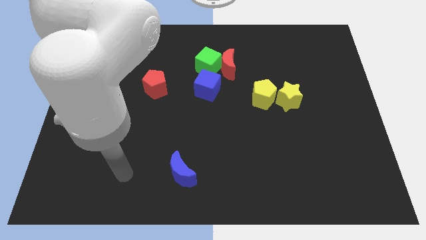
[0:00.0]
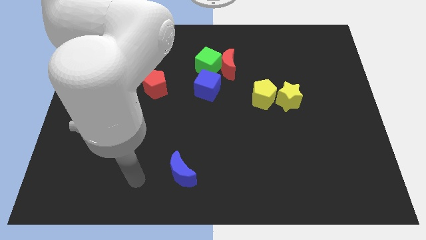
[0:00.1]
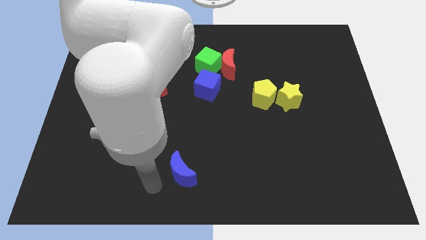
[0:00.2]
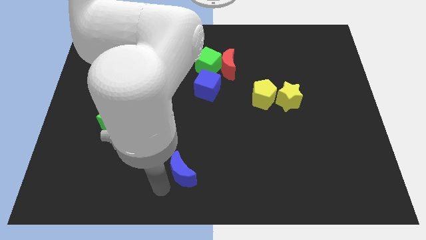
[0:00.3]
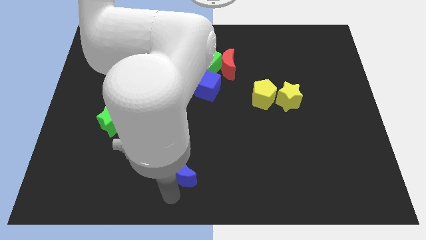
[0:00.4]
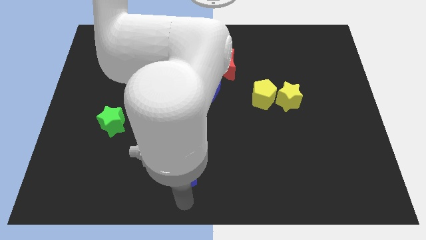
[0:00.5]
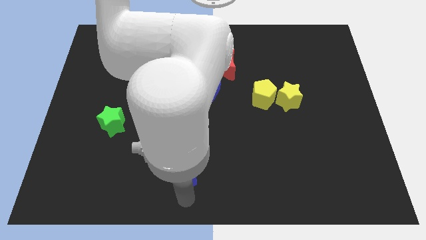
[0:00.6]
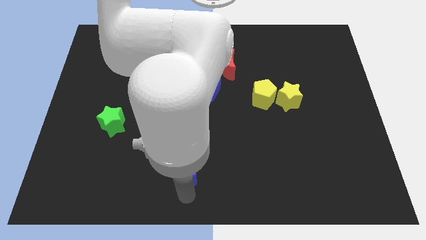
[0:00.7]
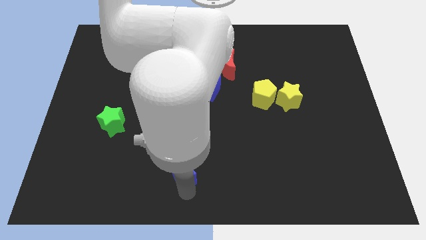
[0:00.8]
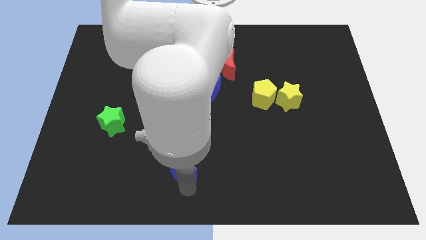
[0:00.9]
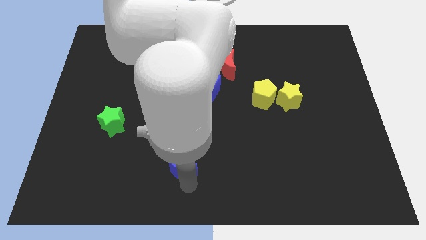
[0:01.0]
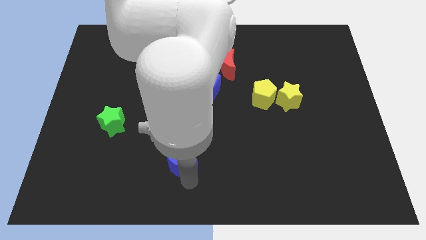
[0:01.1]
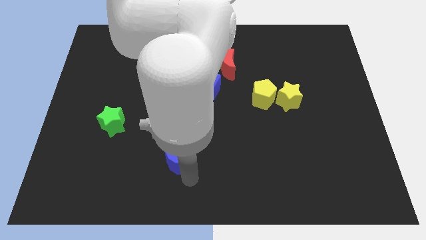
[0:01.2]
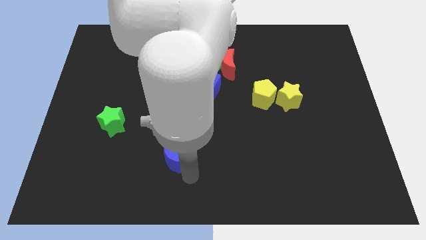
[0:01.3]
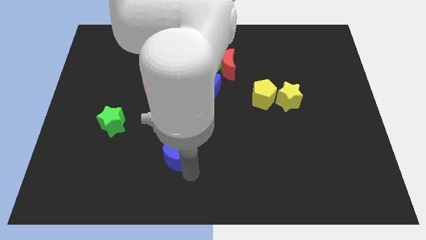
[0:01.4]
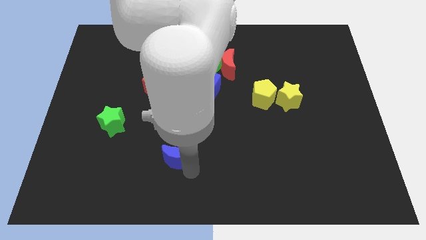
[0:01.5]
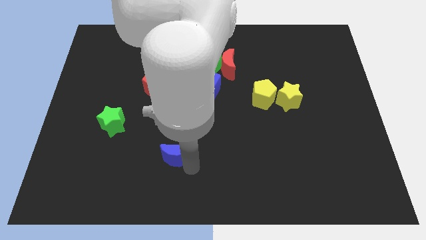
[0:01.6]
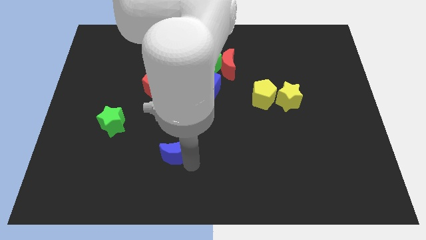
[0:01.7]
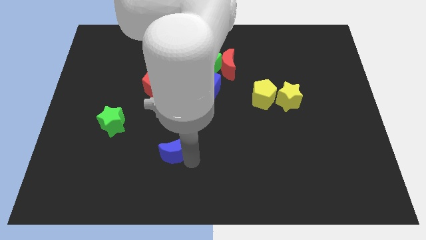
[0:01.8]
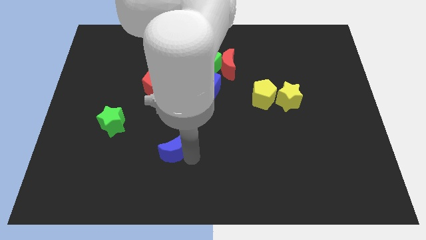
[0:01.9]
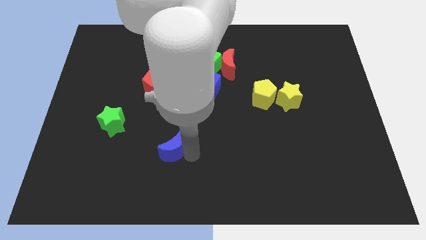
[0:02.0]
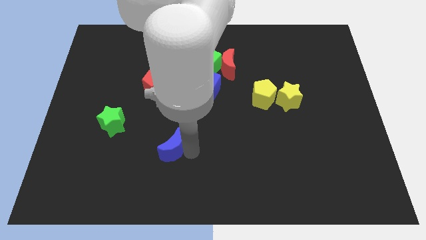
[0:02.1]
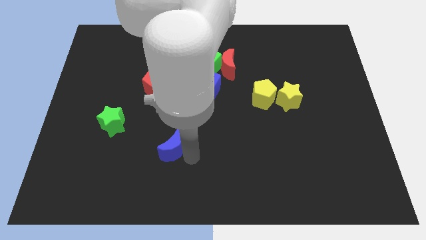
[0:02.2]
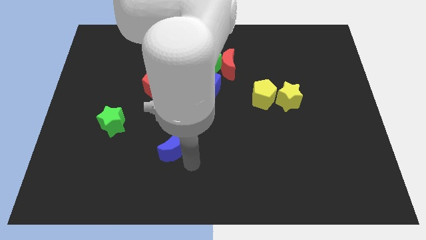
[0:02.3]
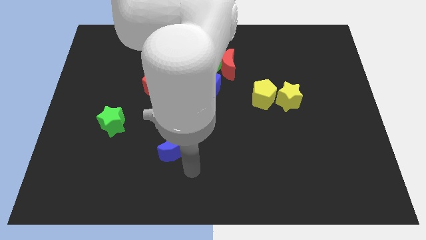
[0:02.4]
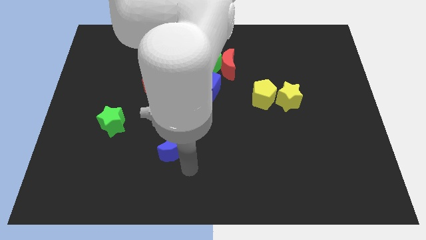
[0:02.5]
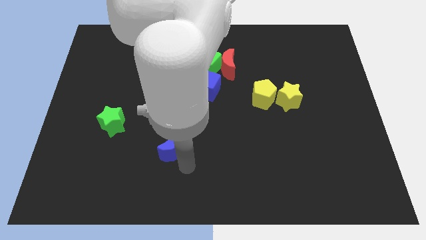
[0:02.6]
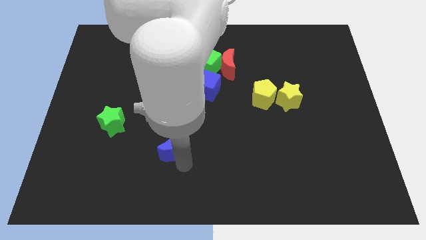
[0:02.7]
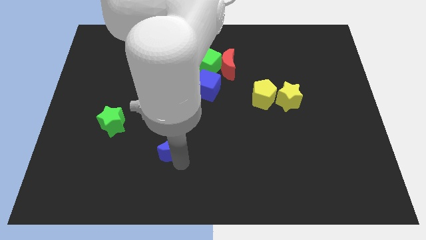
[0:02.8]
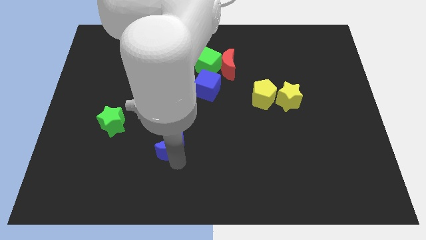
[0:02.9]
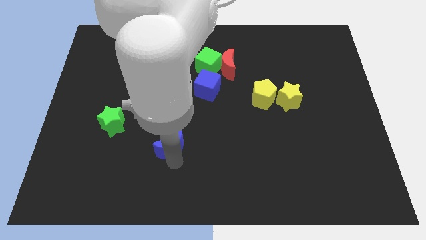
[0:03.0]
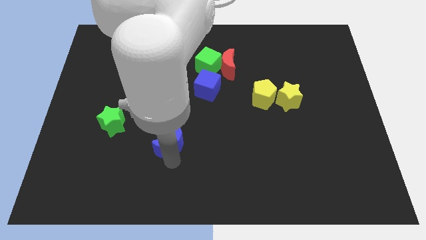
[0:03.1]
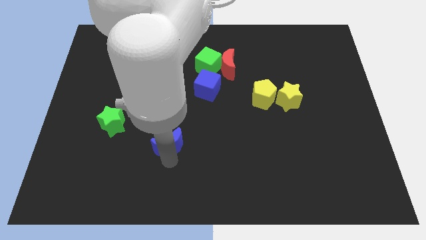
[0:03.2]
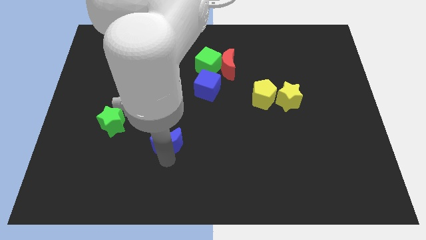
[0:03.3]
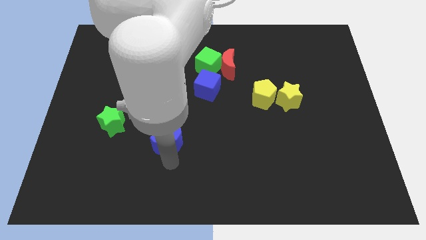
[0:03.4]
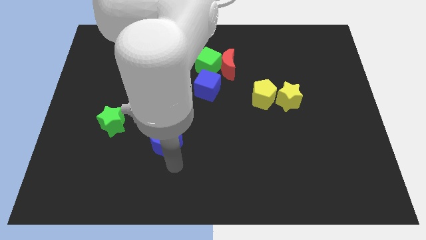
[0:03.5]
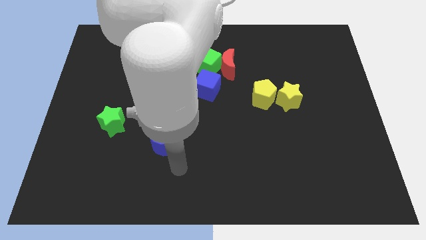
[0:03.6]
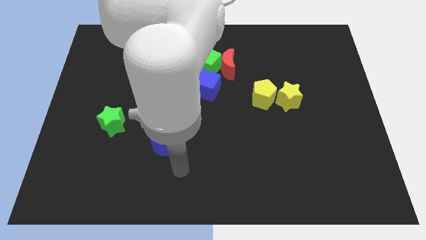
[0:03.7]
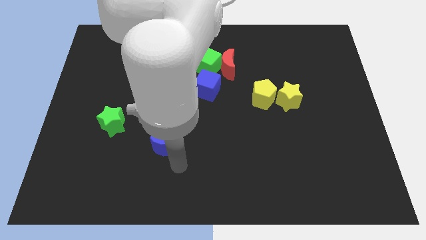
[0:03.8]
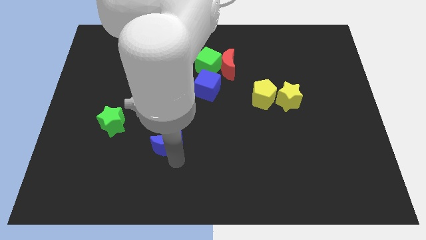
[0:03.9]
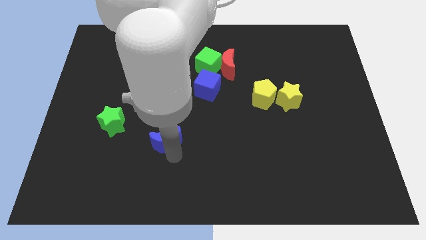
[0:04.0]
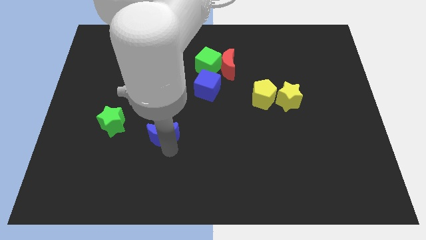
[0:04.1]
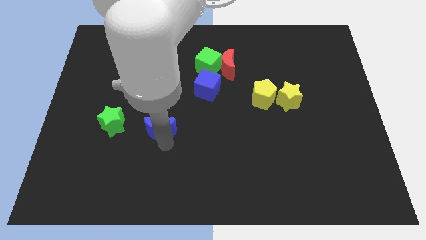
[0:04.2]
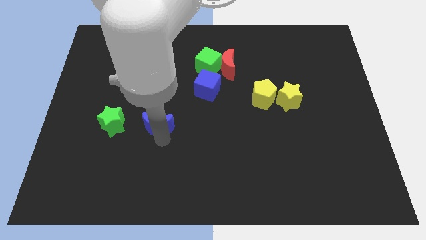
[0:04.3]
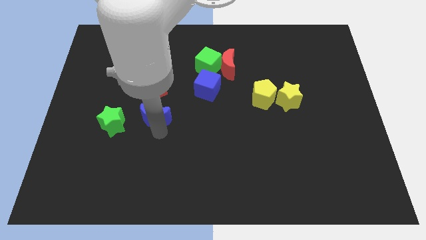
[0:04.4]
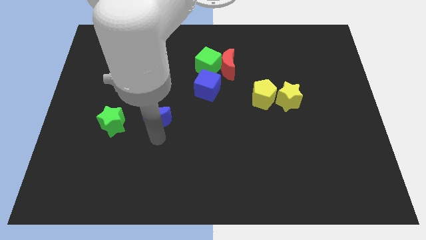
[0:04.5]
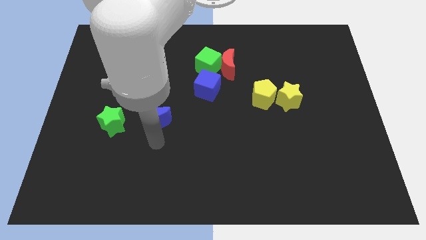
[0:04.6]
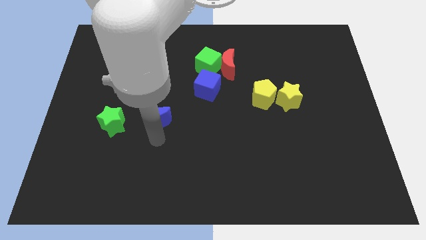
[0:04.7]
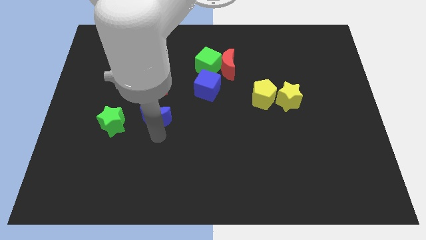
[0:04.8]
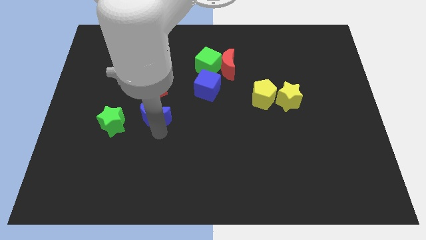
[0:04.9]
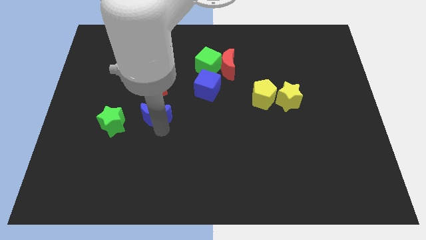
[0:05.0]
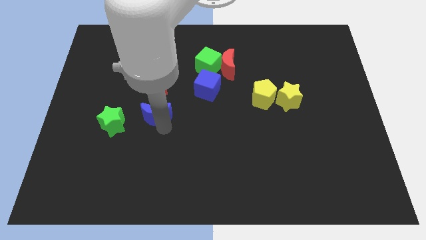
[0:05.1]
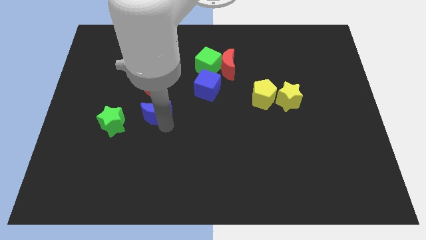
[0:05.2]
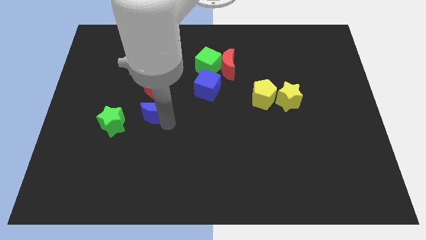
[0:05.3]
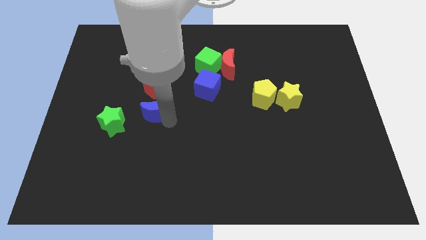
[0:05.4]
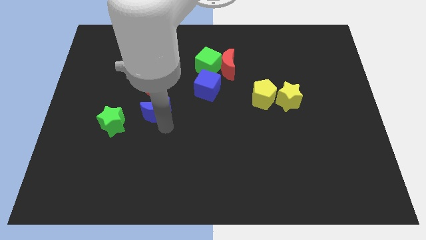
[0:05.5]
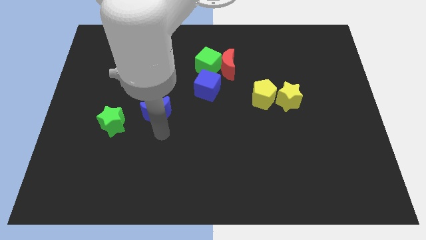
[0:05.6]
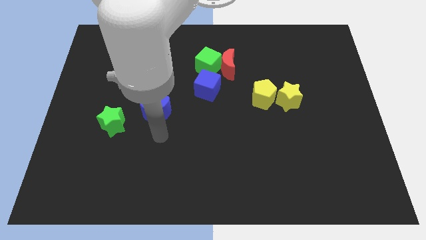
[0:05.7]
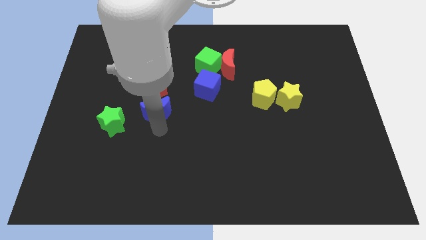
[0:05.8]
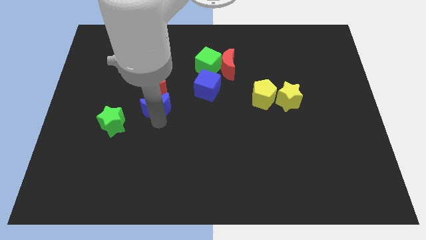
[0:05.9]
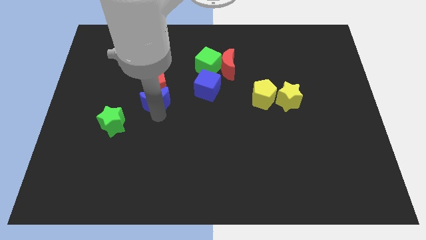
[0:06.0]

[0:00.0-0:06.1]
push the blue moon towards the red pentagon

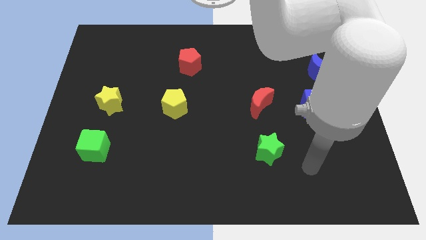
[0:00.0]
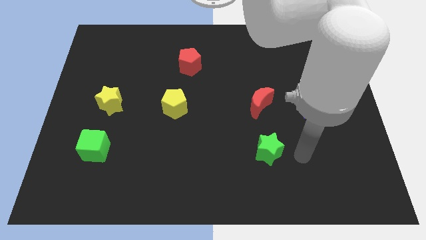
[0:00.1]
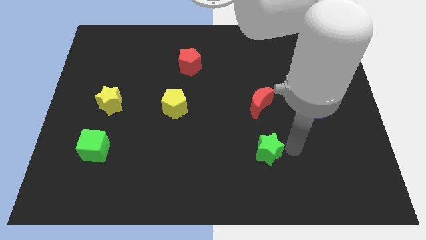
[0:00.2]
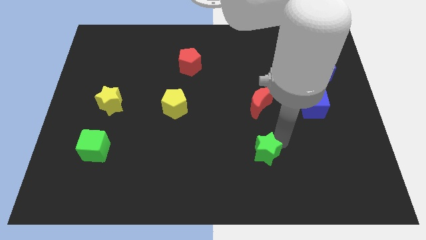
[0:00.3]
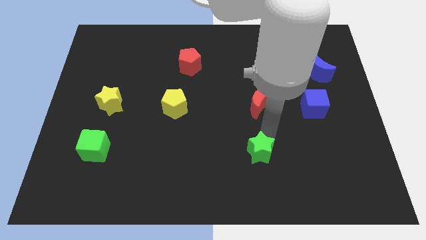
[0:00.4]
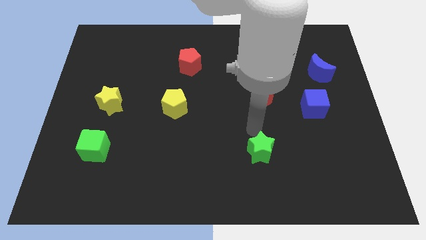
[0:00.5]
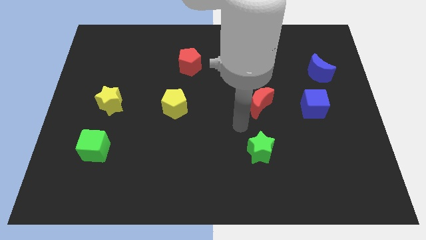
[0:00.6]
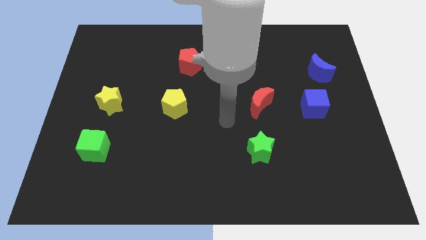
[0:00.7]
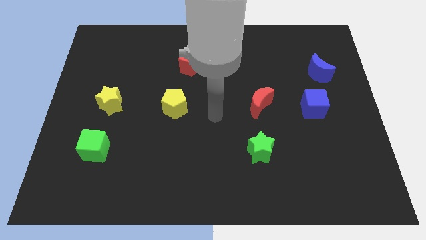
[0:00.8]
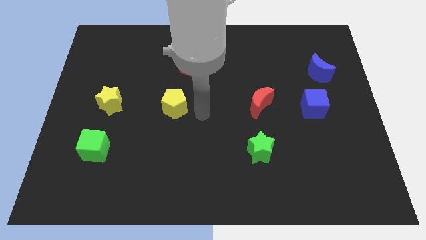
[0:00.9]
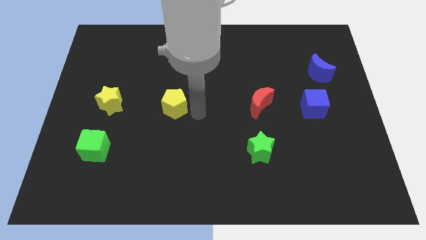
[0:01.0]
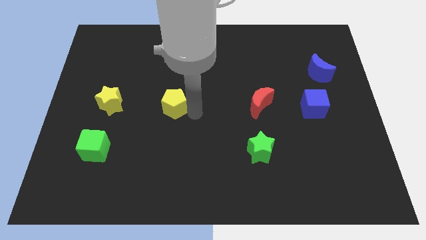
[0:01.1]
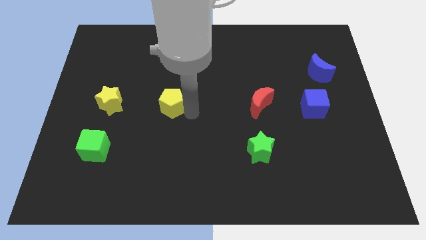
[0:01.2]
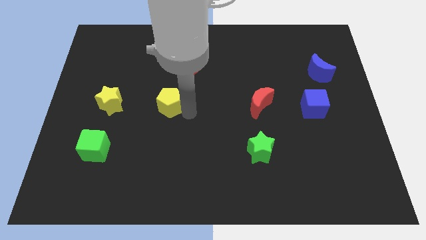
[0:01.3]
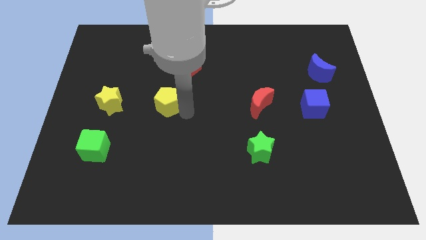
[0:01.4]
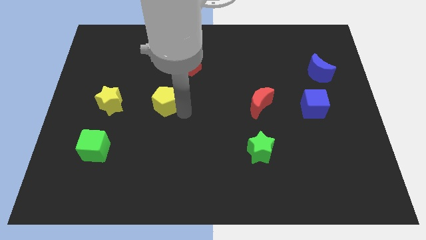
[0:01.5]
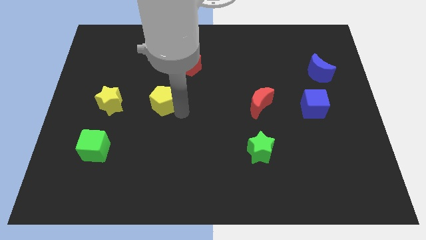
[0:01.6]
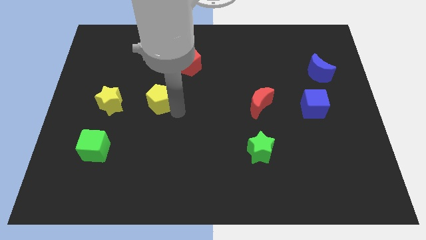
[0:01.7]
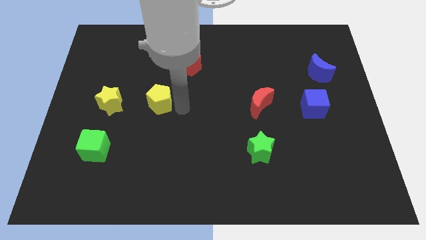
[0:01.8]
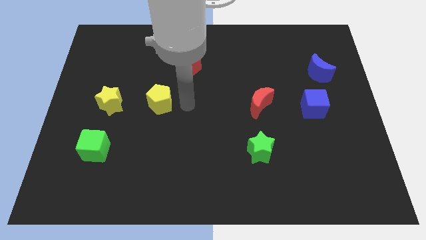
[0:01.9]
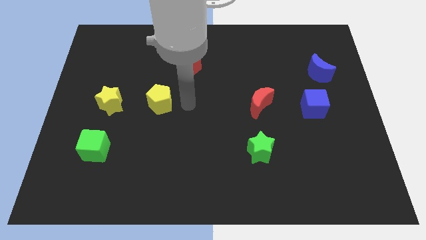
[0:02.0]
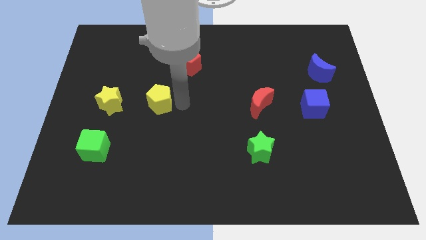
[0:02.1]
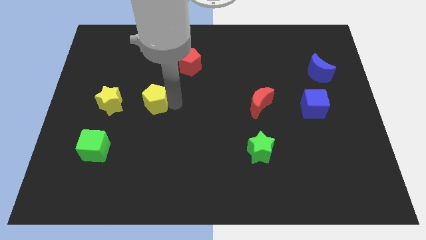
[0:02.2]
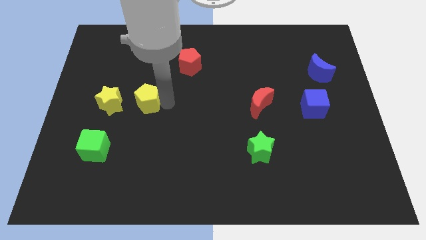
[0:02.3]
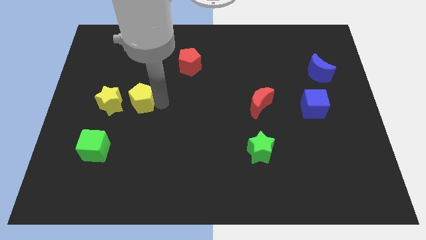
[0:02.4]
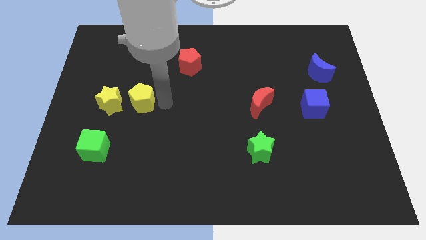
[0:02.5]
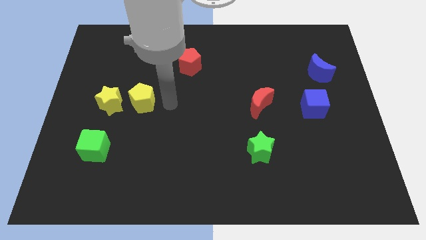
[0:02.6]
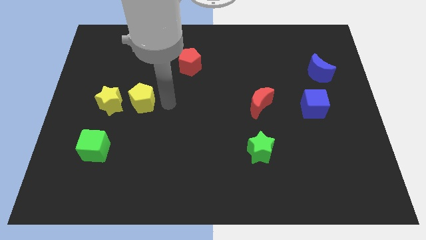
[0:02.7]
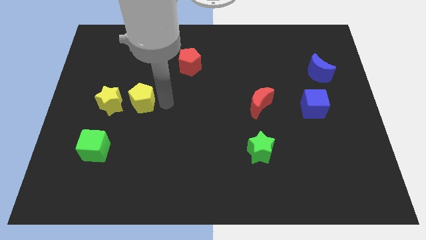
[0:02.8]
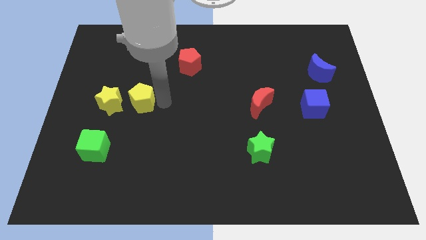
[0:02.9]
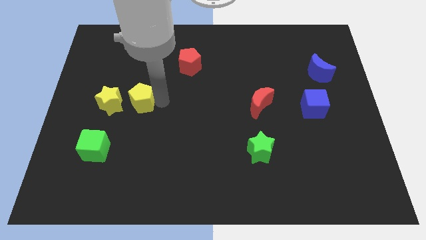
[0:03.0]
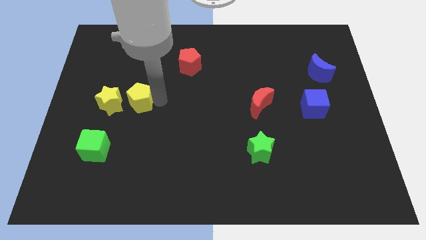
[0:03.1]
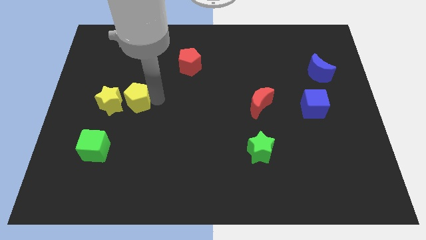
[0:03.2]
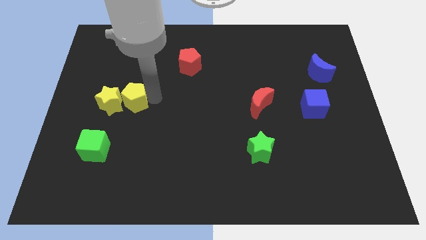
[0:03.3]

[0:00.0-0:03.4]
put the yellow pentagon next to the yellow star
